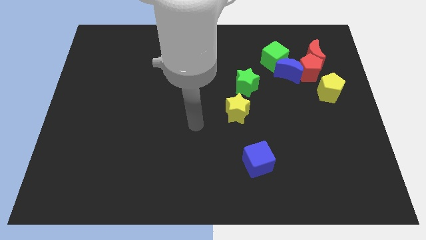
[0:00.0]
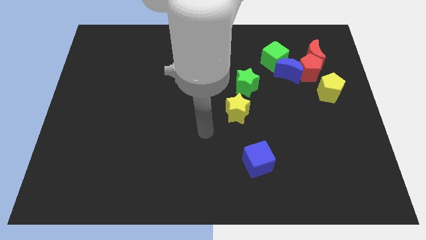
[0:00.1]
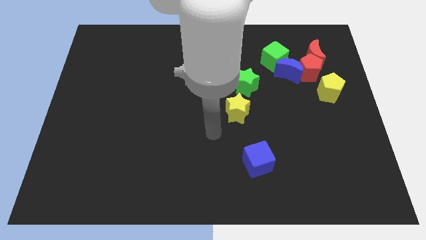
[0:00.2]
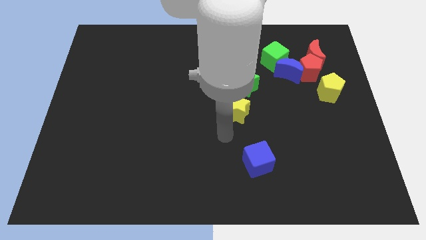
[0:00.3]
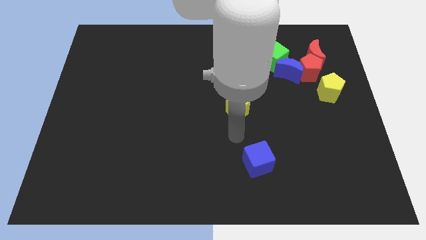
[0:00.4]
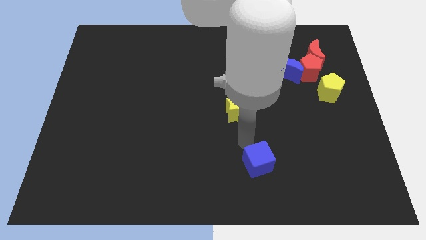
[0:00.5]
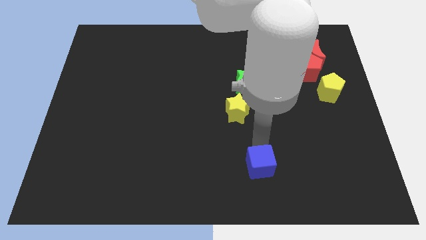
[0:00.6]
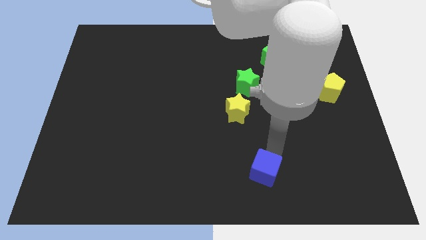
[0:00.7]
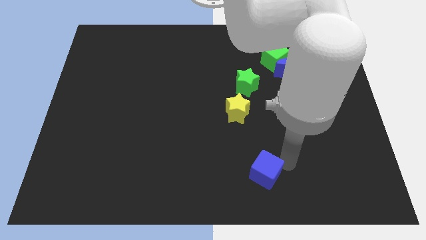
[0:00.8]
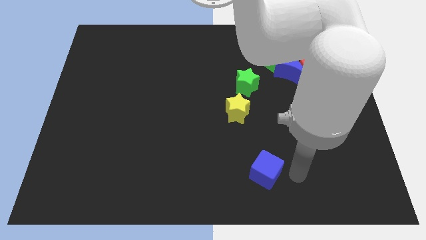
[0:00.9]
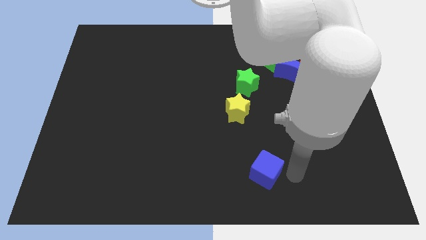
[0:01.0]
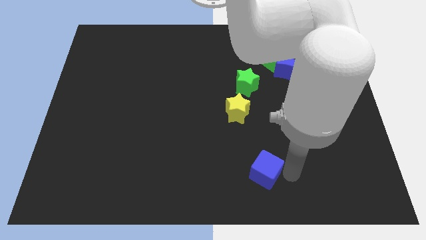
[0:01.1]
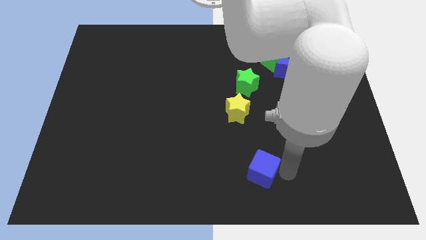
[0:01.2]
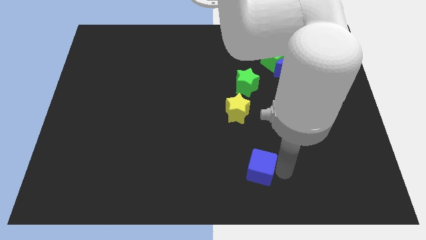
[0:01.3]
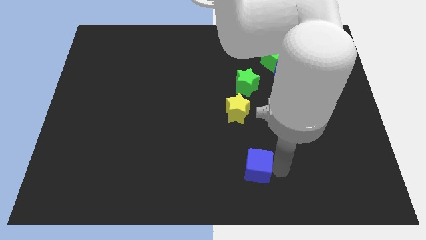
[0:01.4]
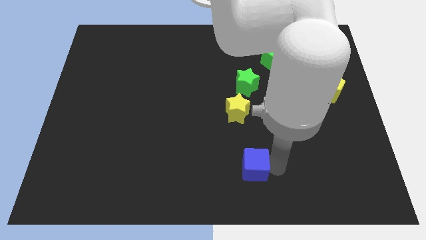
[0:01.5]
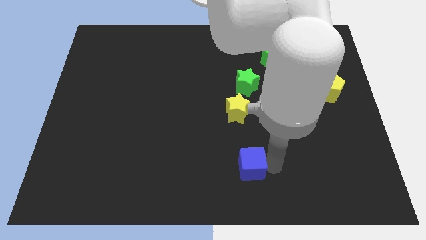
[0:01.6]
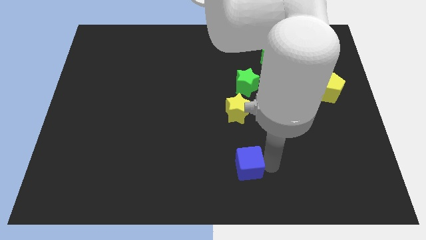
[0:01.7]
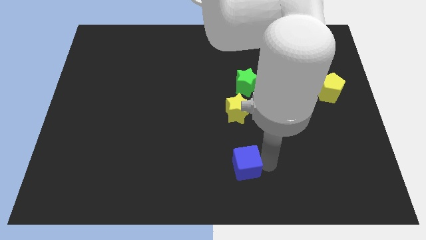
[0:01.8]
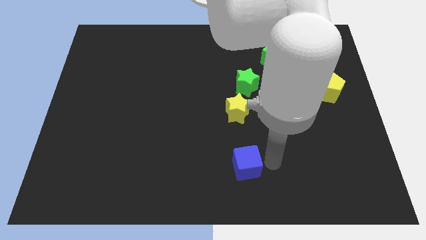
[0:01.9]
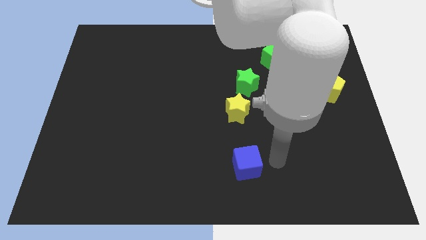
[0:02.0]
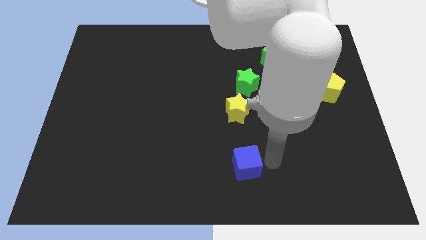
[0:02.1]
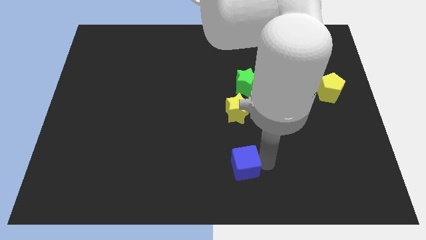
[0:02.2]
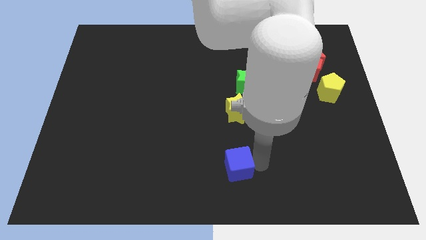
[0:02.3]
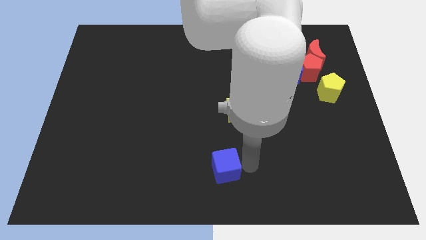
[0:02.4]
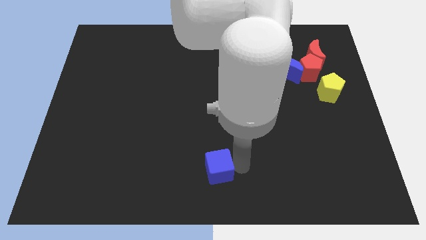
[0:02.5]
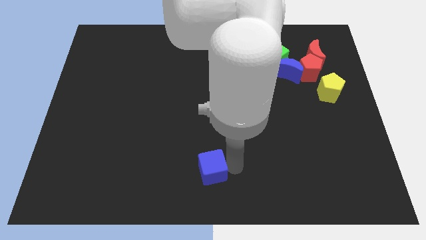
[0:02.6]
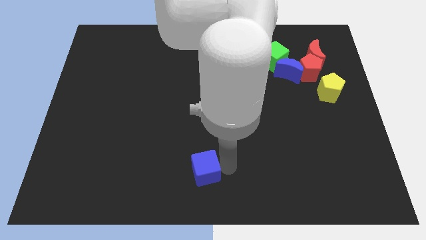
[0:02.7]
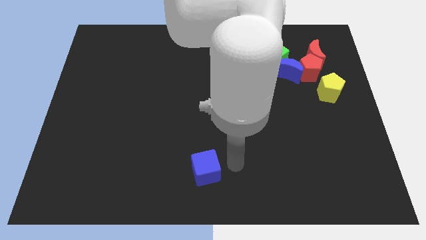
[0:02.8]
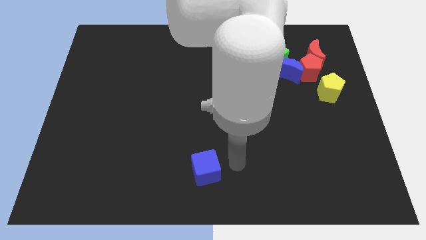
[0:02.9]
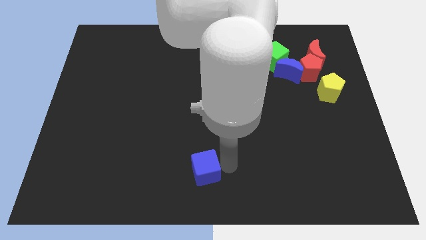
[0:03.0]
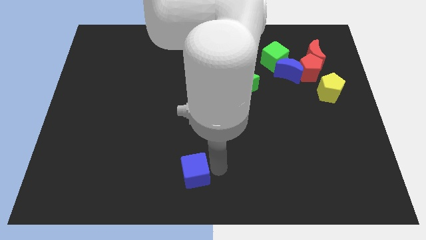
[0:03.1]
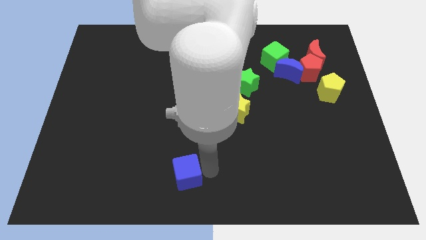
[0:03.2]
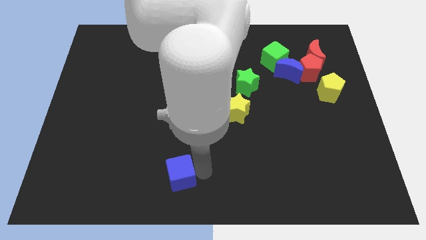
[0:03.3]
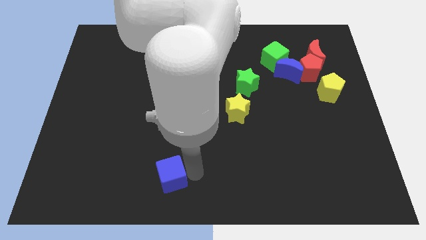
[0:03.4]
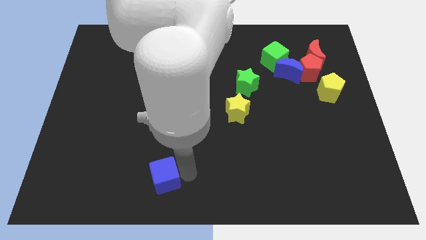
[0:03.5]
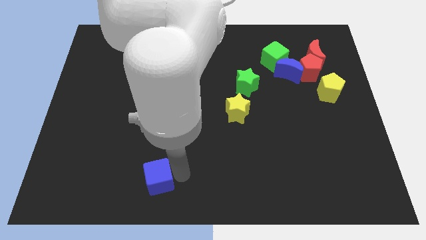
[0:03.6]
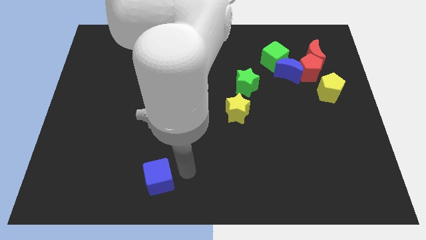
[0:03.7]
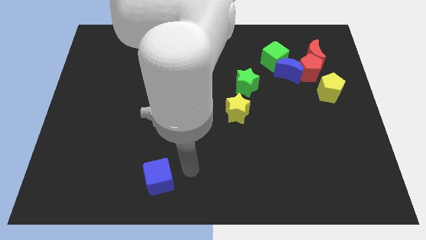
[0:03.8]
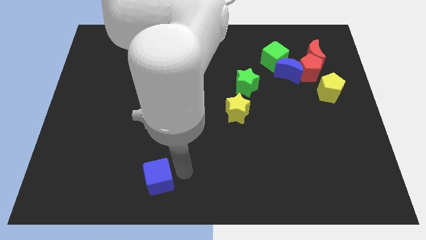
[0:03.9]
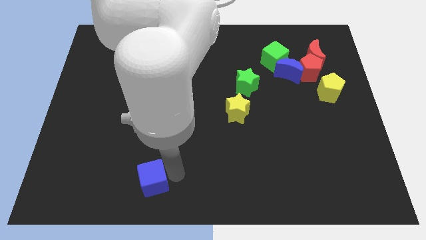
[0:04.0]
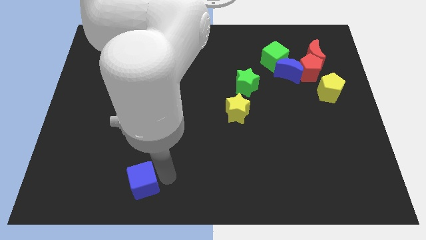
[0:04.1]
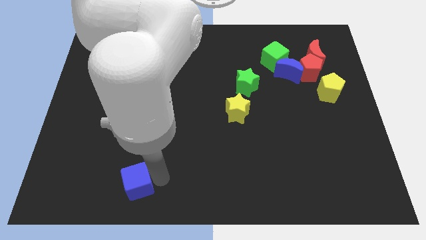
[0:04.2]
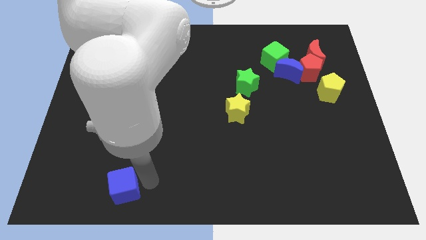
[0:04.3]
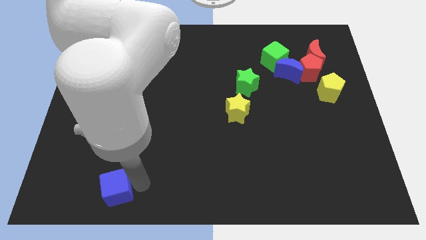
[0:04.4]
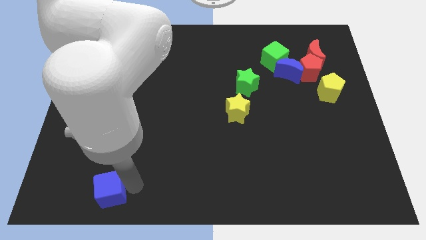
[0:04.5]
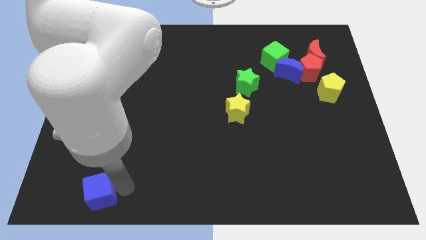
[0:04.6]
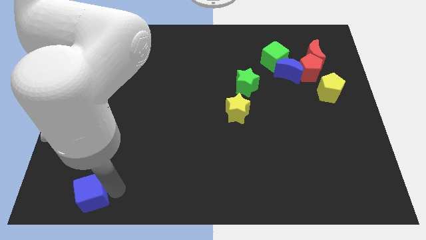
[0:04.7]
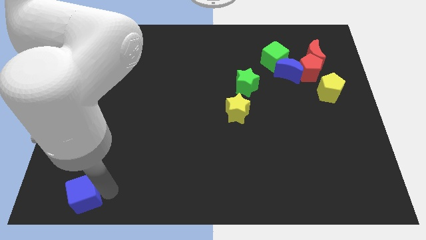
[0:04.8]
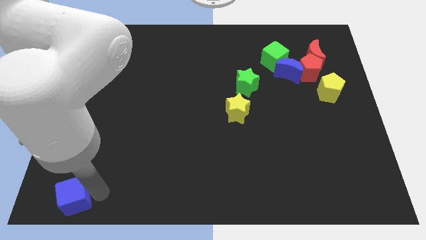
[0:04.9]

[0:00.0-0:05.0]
slide the blue cube to the lower left corner

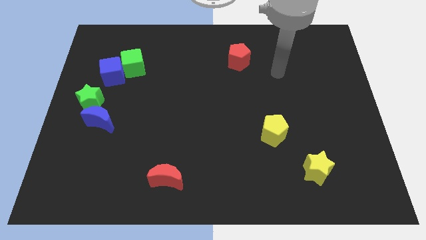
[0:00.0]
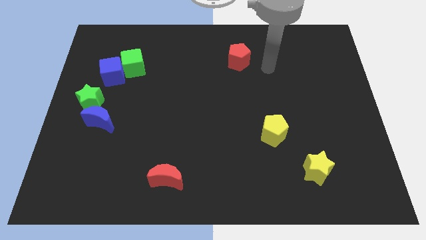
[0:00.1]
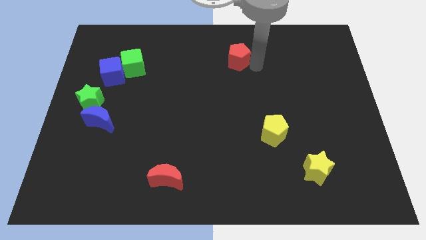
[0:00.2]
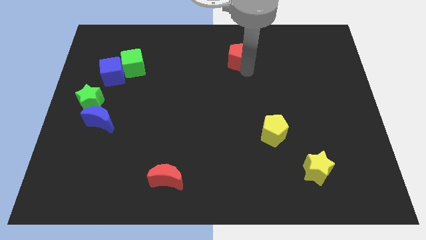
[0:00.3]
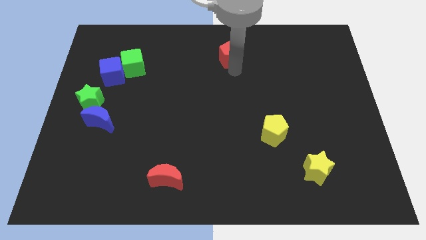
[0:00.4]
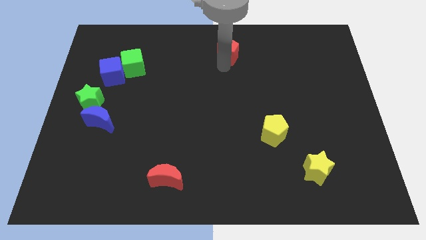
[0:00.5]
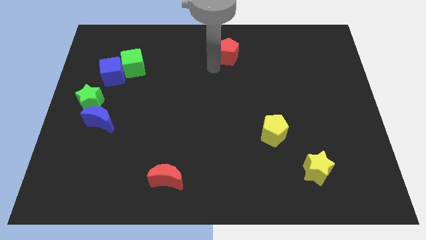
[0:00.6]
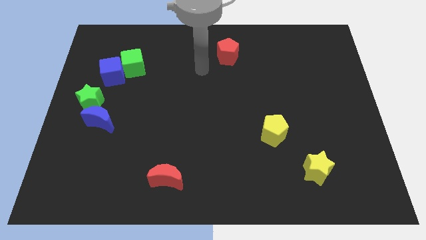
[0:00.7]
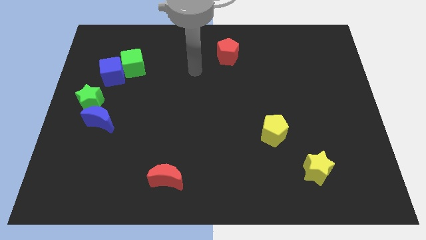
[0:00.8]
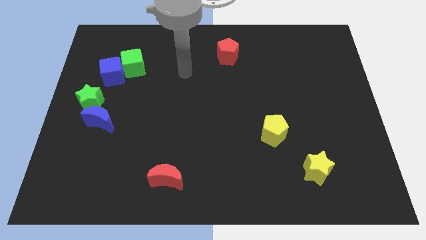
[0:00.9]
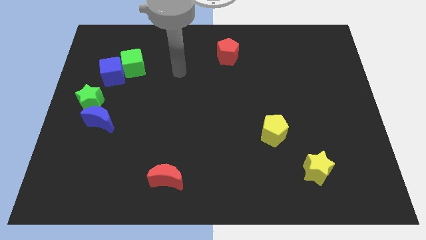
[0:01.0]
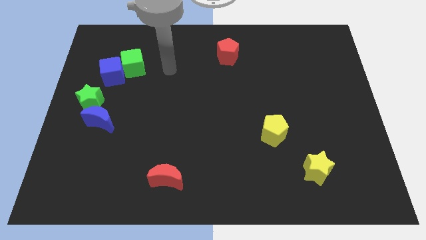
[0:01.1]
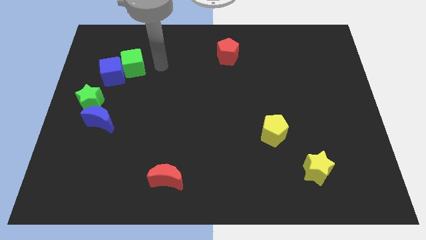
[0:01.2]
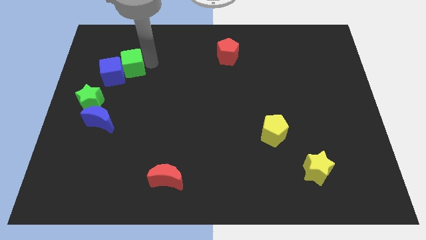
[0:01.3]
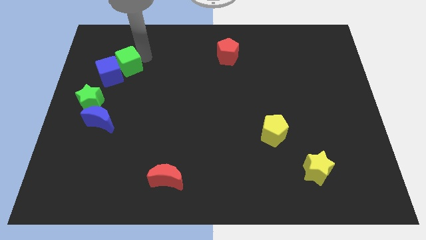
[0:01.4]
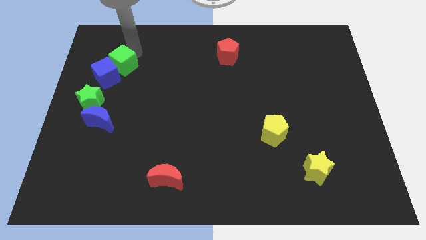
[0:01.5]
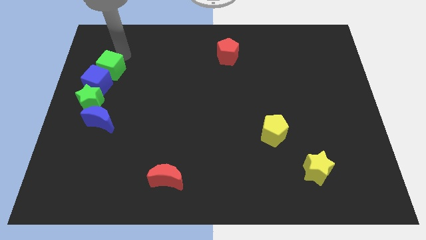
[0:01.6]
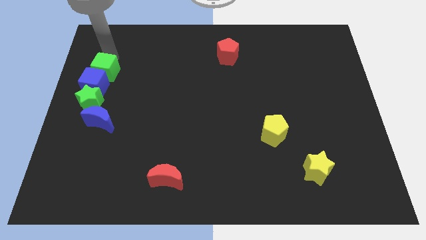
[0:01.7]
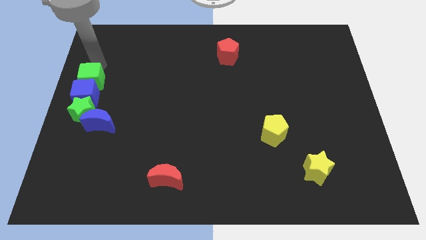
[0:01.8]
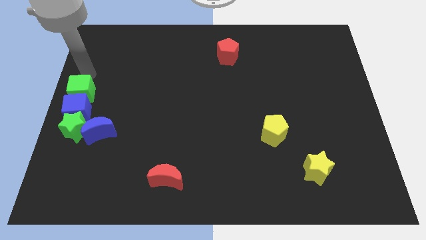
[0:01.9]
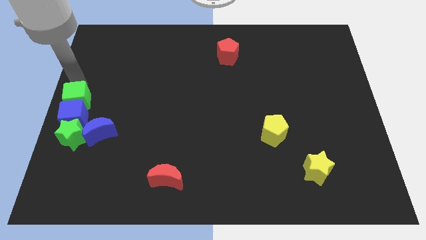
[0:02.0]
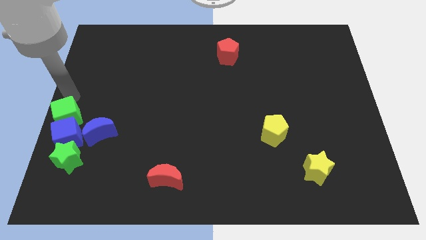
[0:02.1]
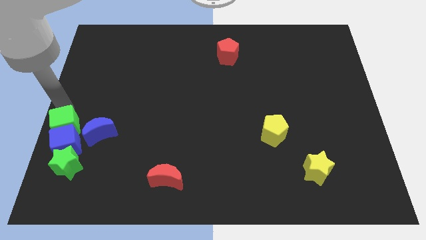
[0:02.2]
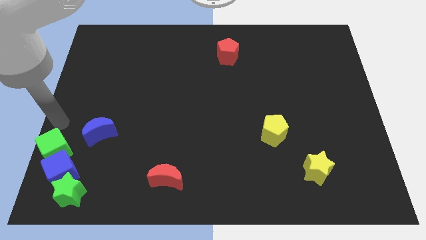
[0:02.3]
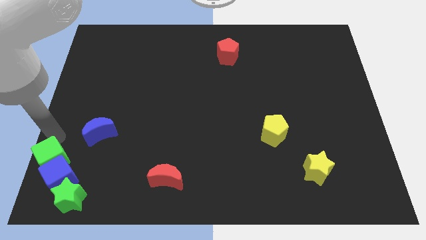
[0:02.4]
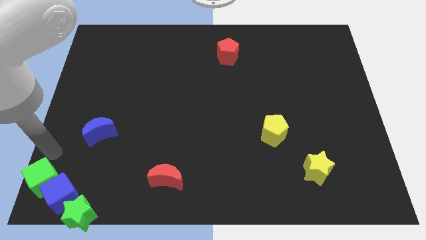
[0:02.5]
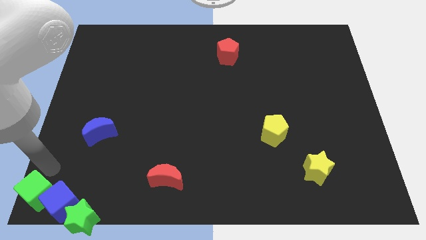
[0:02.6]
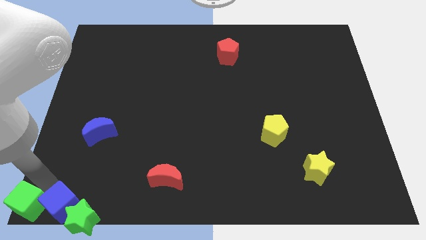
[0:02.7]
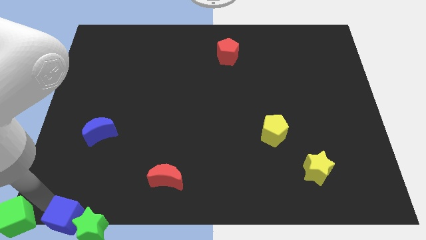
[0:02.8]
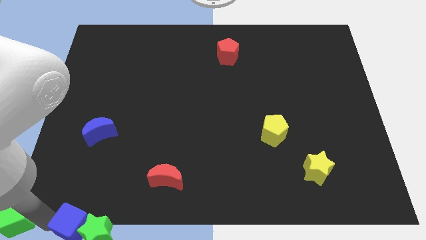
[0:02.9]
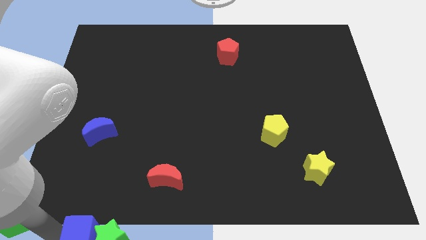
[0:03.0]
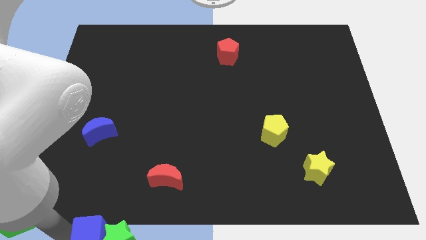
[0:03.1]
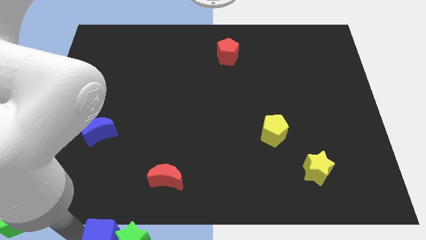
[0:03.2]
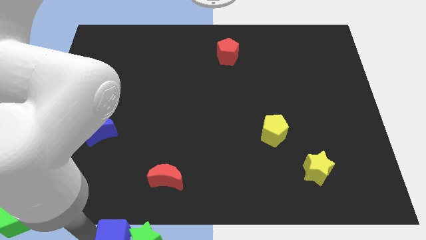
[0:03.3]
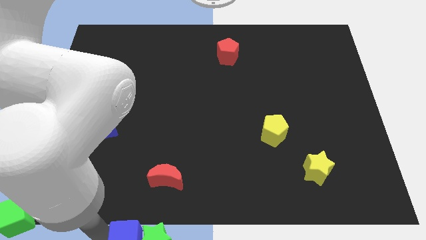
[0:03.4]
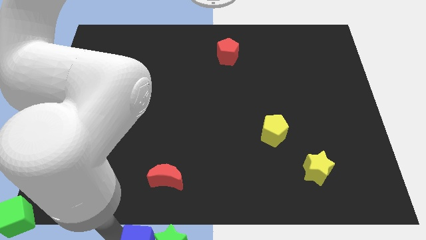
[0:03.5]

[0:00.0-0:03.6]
move the blue cube to the bottom
